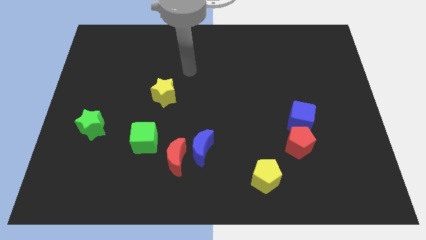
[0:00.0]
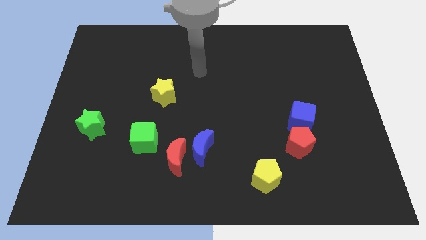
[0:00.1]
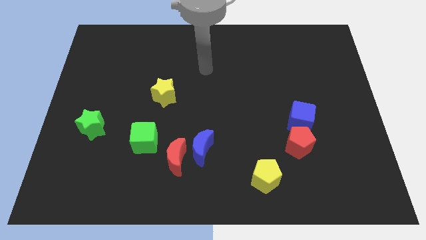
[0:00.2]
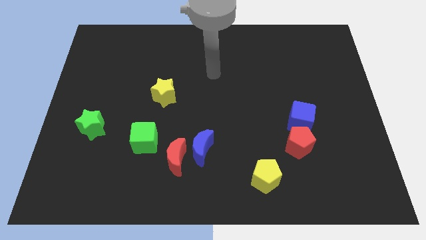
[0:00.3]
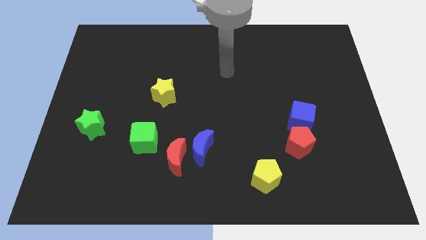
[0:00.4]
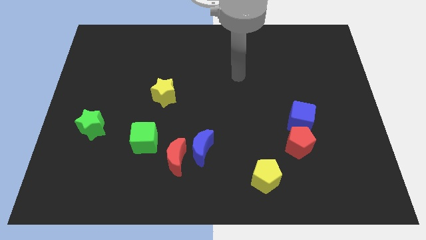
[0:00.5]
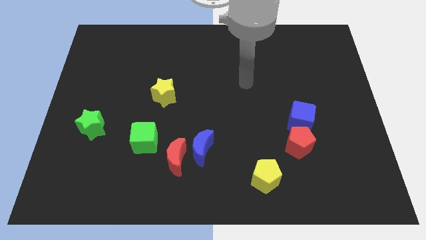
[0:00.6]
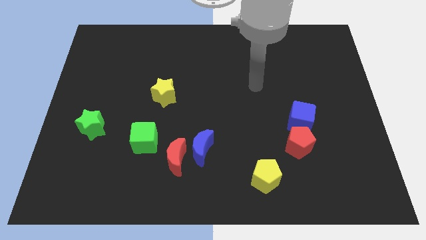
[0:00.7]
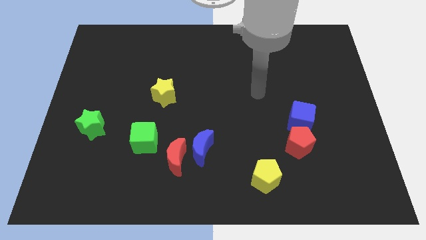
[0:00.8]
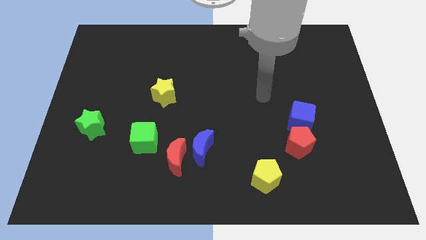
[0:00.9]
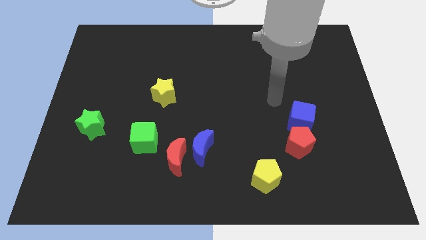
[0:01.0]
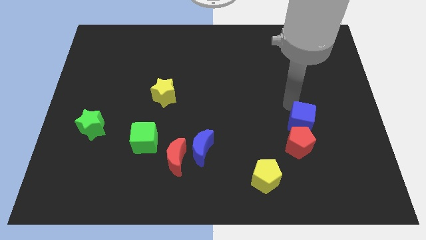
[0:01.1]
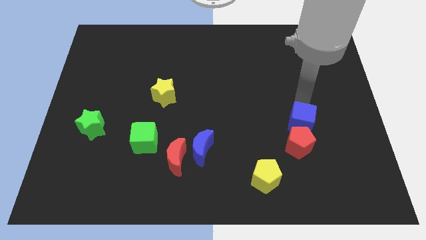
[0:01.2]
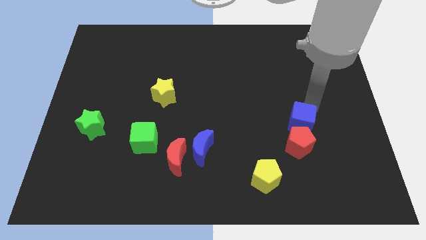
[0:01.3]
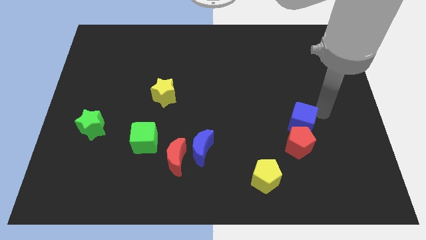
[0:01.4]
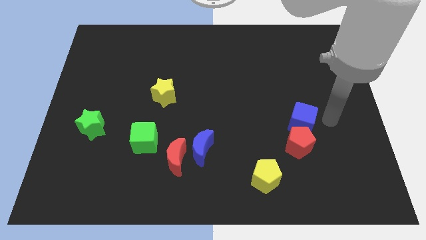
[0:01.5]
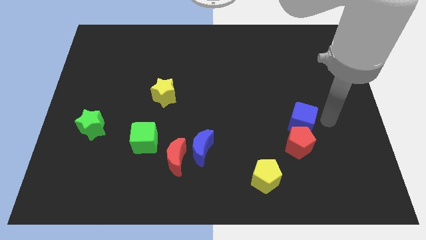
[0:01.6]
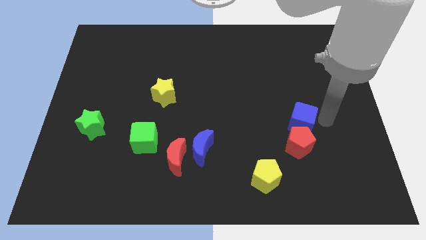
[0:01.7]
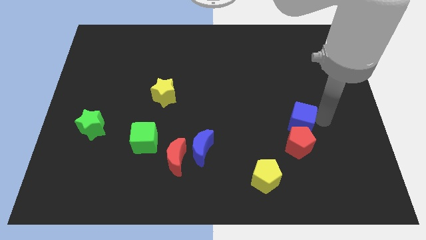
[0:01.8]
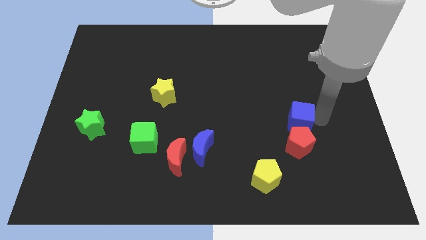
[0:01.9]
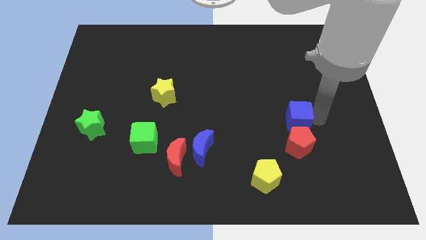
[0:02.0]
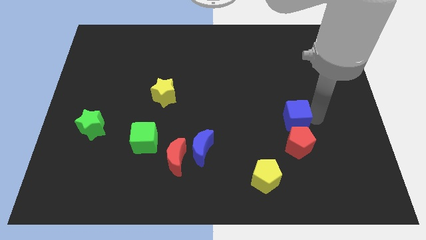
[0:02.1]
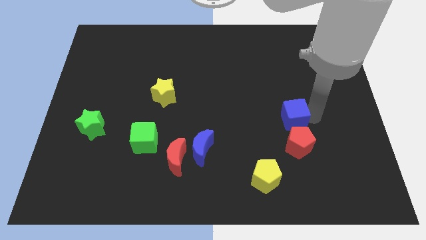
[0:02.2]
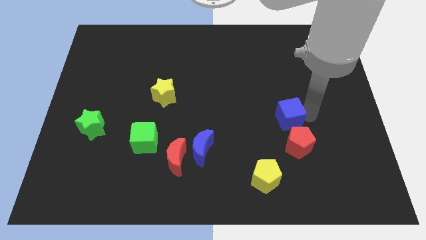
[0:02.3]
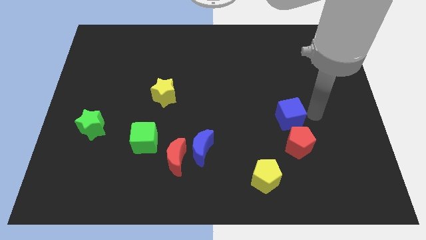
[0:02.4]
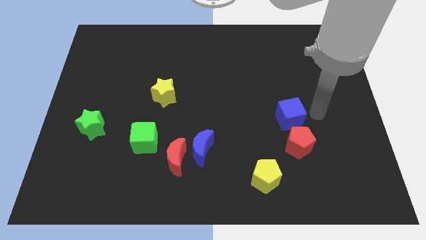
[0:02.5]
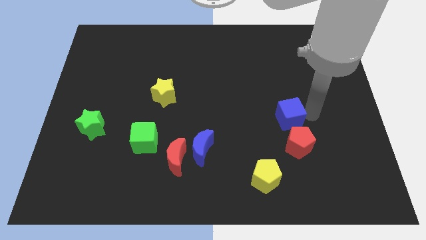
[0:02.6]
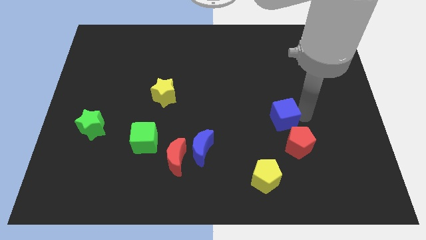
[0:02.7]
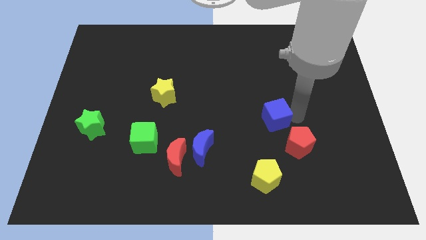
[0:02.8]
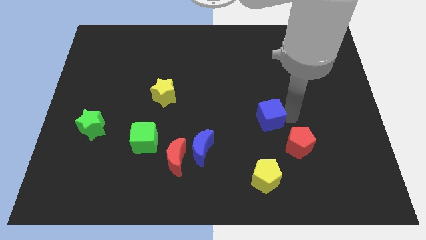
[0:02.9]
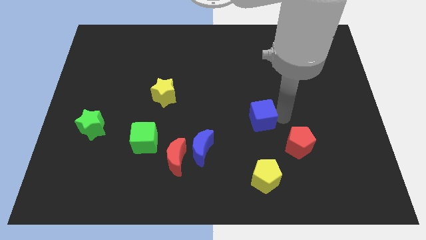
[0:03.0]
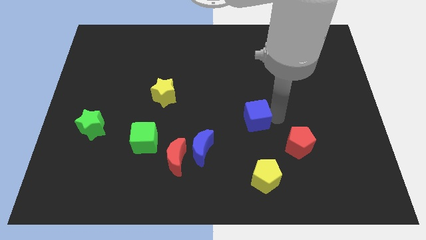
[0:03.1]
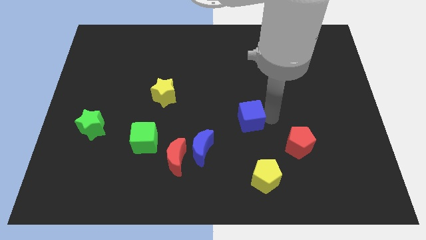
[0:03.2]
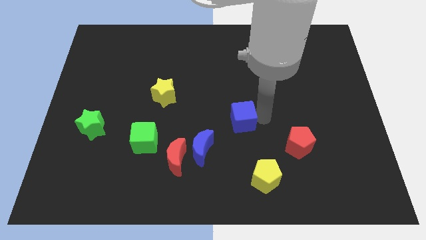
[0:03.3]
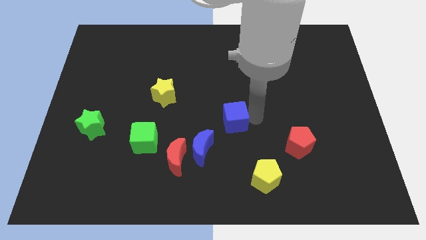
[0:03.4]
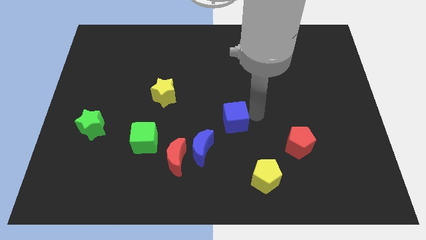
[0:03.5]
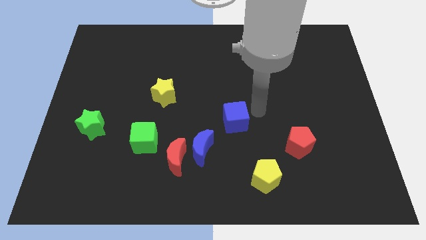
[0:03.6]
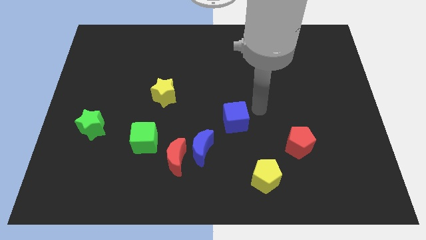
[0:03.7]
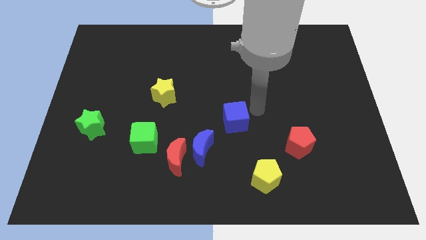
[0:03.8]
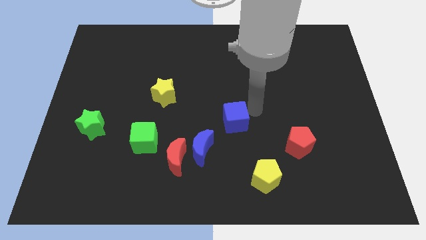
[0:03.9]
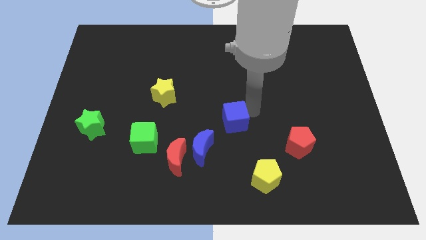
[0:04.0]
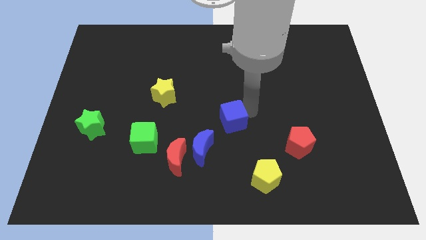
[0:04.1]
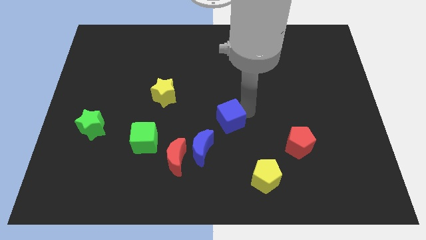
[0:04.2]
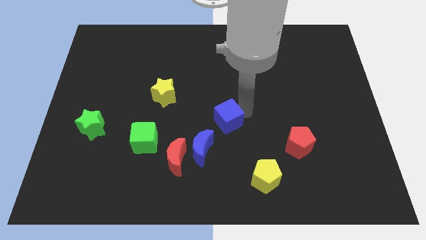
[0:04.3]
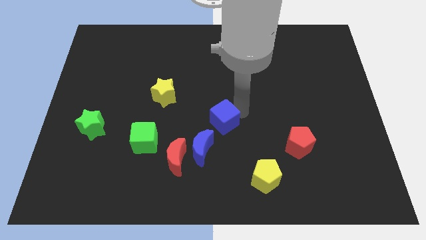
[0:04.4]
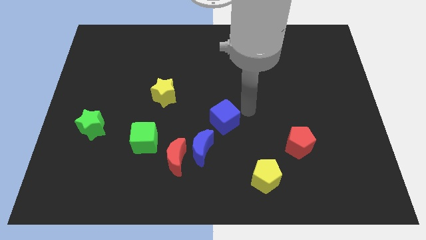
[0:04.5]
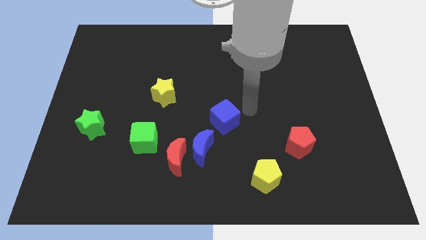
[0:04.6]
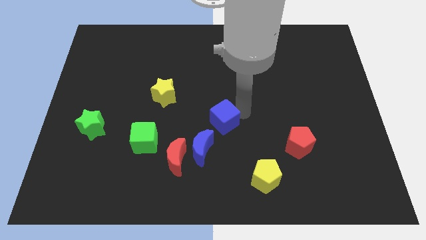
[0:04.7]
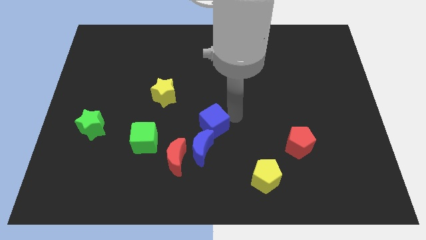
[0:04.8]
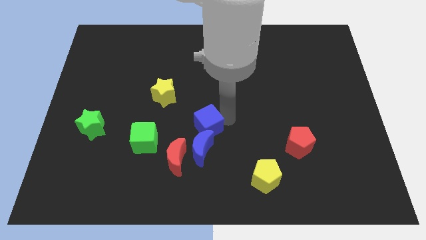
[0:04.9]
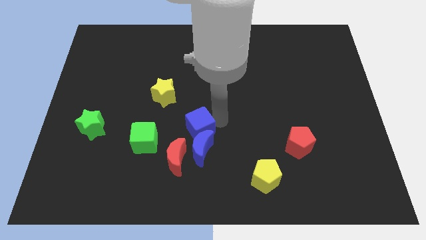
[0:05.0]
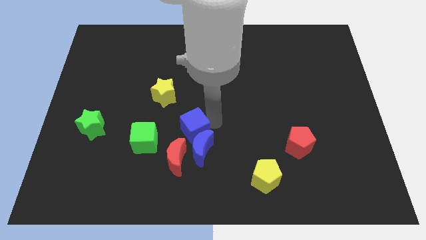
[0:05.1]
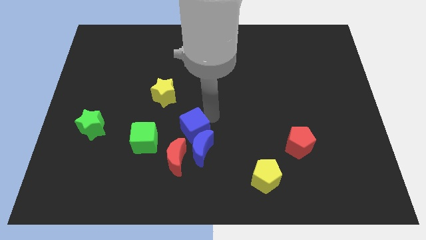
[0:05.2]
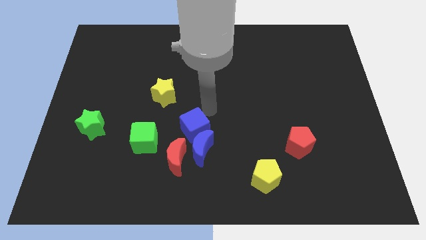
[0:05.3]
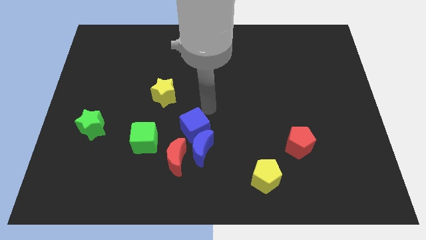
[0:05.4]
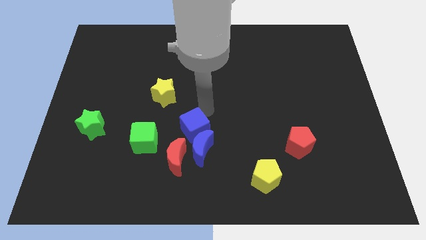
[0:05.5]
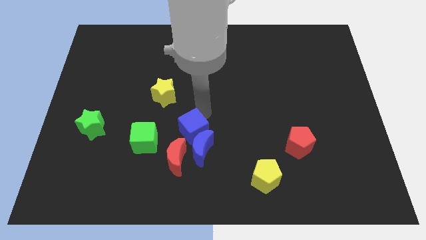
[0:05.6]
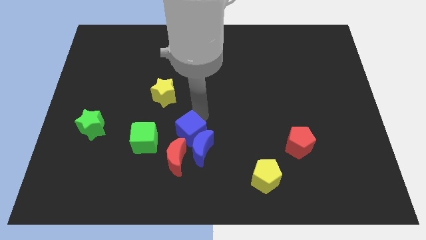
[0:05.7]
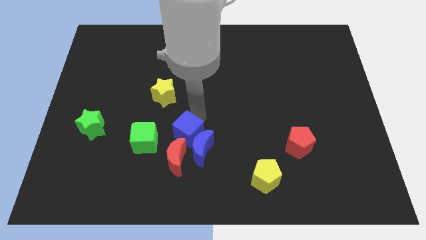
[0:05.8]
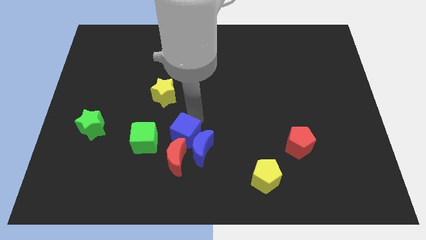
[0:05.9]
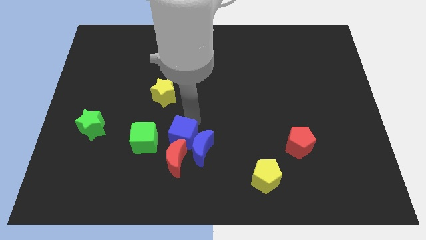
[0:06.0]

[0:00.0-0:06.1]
push the blue cube close to the red moon
